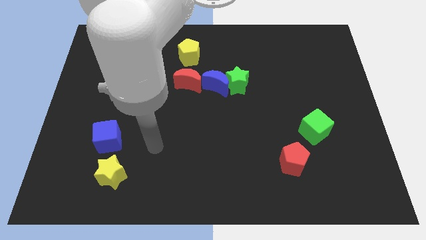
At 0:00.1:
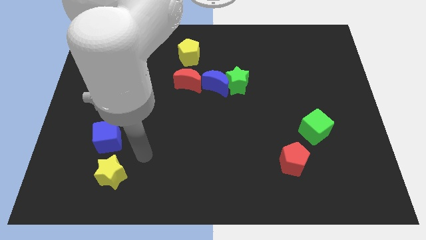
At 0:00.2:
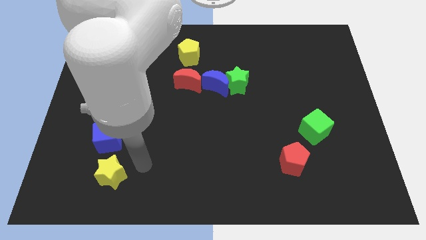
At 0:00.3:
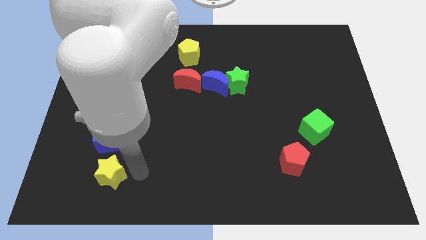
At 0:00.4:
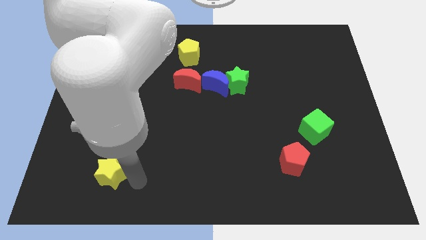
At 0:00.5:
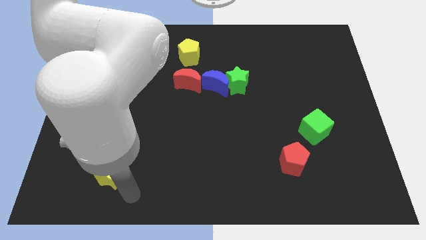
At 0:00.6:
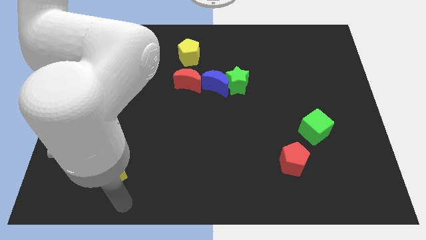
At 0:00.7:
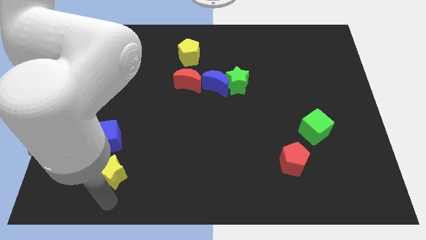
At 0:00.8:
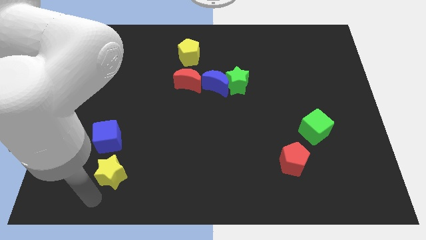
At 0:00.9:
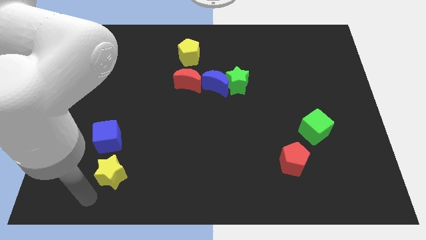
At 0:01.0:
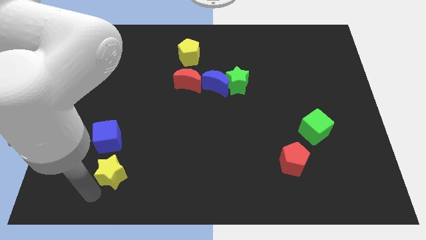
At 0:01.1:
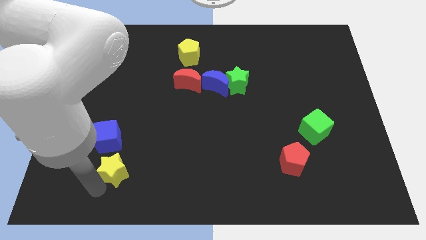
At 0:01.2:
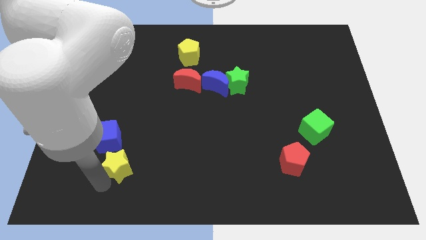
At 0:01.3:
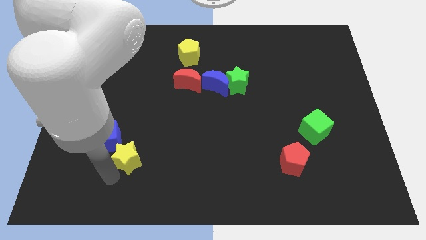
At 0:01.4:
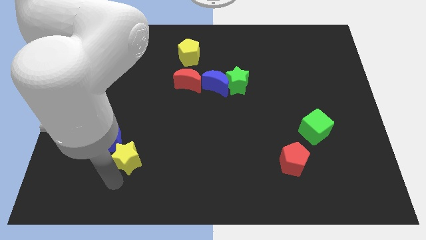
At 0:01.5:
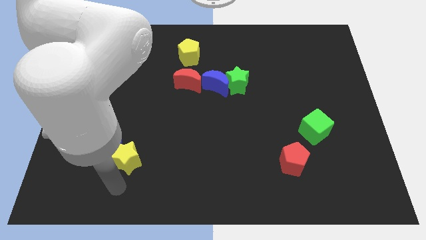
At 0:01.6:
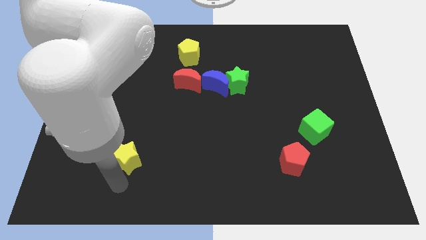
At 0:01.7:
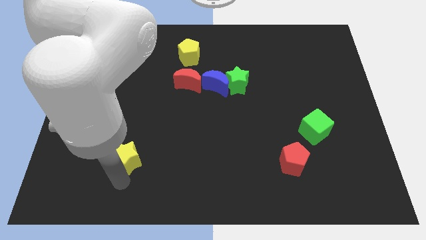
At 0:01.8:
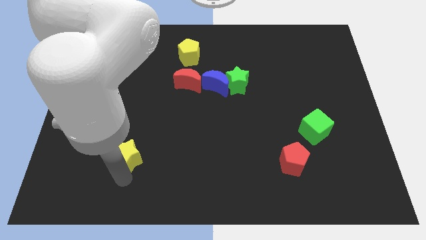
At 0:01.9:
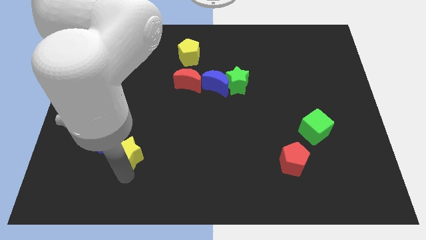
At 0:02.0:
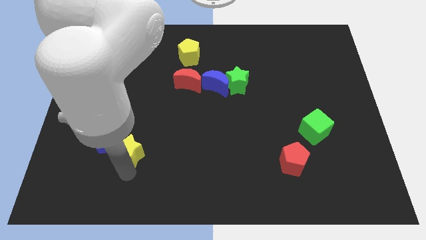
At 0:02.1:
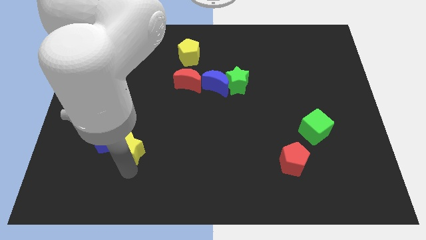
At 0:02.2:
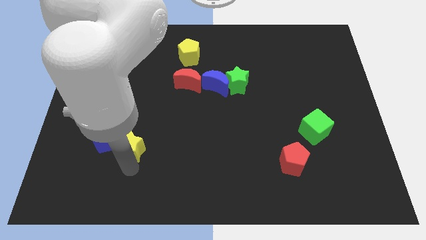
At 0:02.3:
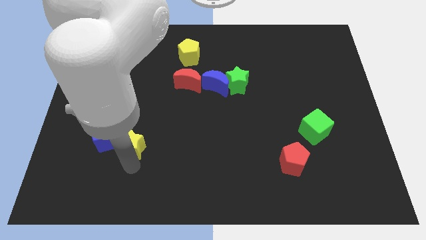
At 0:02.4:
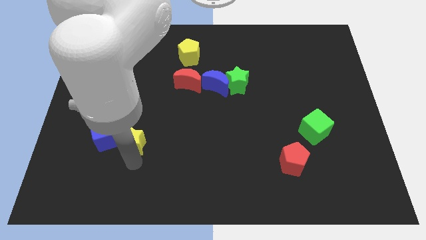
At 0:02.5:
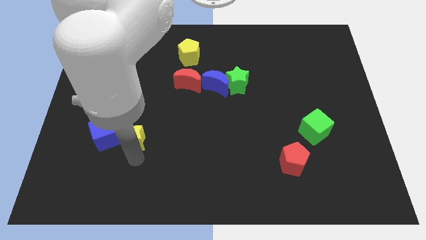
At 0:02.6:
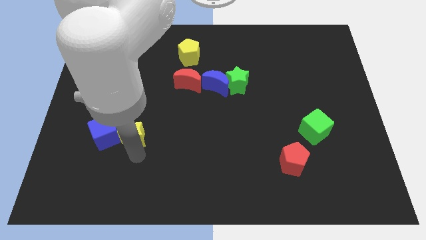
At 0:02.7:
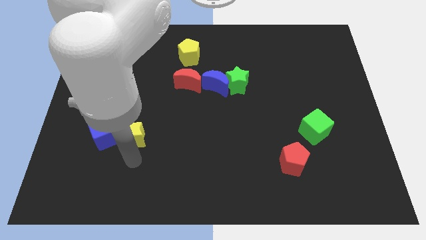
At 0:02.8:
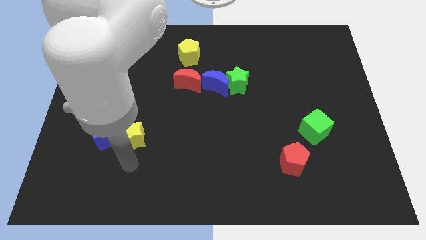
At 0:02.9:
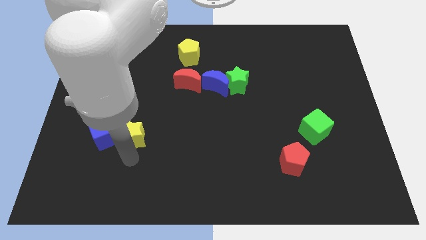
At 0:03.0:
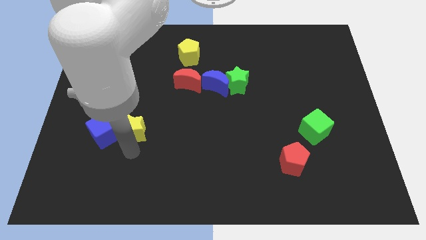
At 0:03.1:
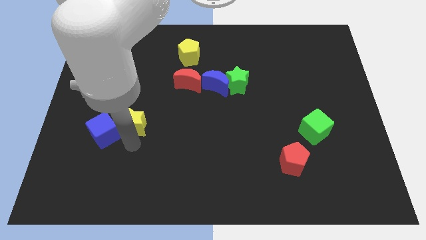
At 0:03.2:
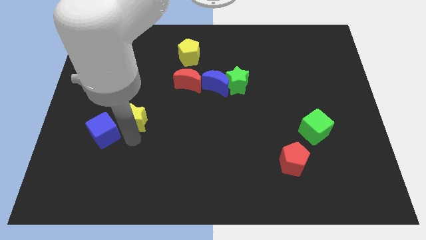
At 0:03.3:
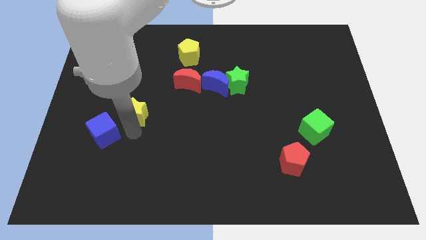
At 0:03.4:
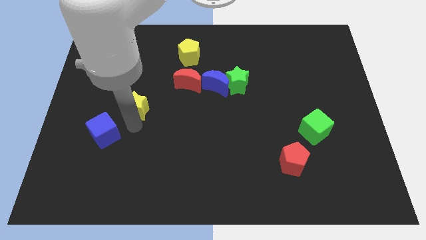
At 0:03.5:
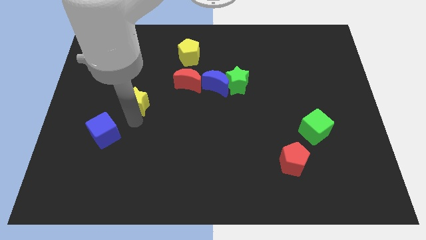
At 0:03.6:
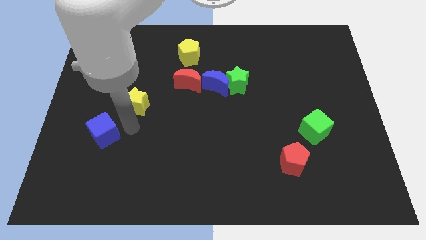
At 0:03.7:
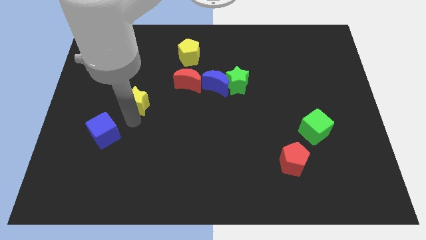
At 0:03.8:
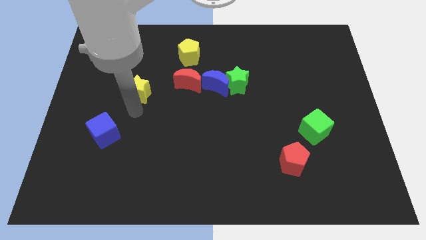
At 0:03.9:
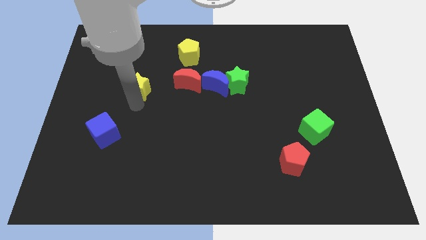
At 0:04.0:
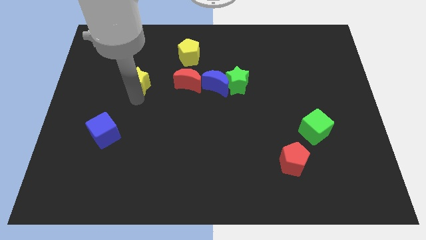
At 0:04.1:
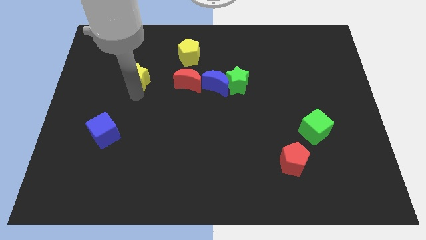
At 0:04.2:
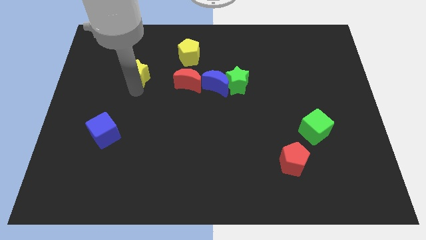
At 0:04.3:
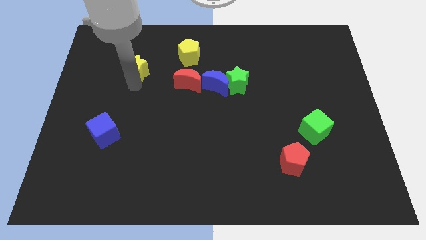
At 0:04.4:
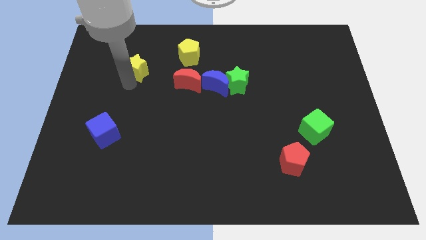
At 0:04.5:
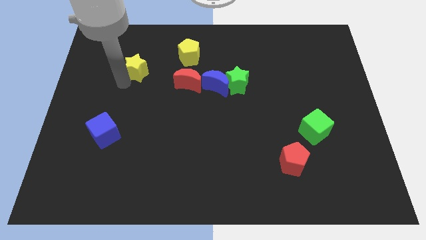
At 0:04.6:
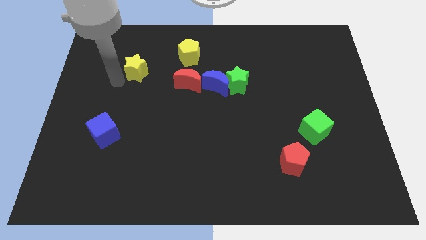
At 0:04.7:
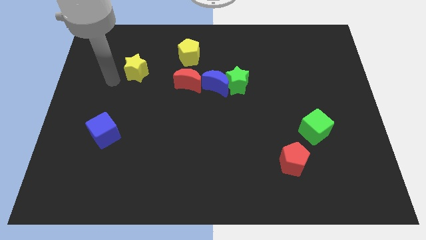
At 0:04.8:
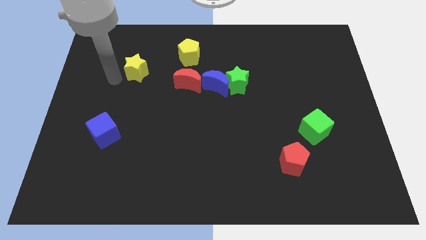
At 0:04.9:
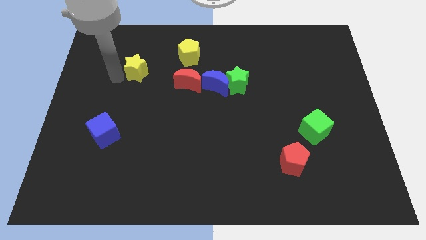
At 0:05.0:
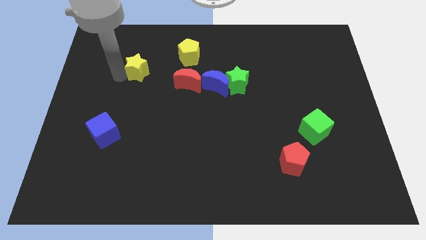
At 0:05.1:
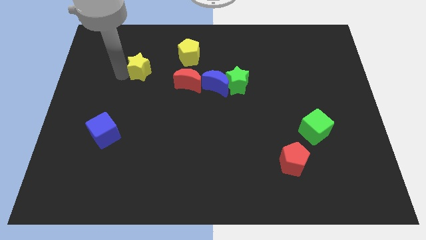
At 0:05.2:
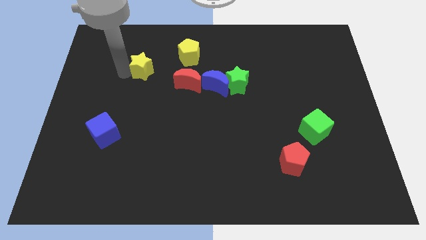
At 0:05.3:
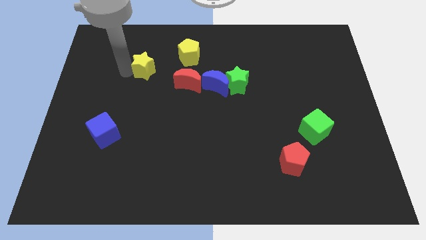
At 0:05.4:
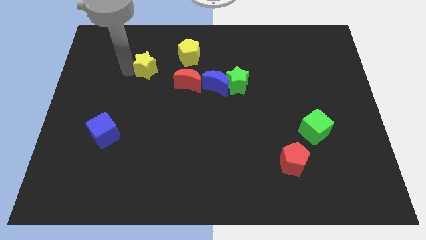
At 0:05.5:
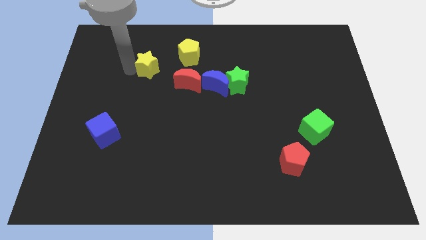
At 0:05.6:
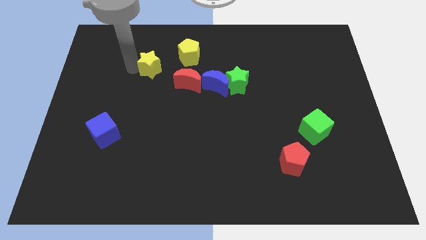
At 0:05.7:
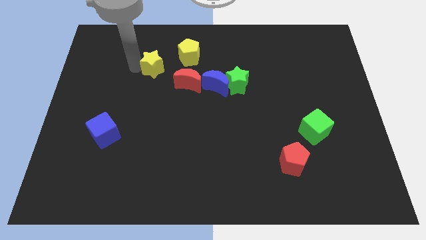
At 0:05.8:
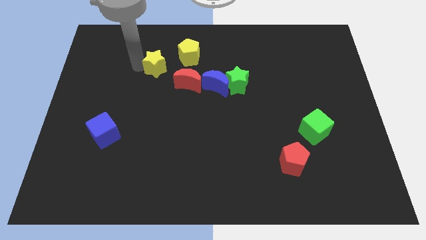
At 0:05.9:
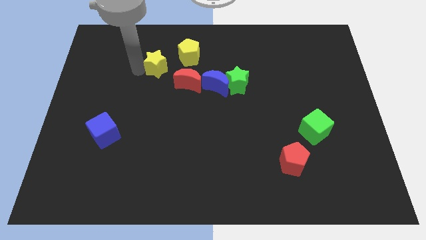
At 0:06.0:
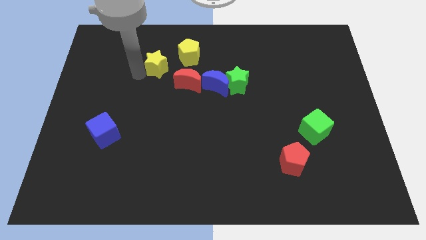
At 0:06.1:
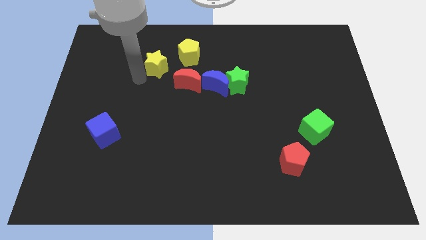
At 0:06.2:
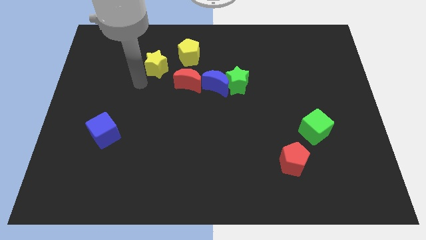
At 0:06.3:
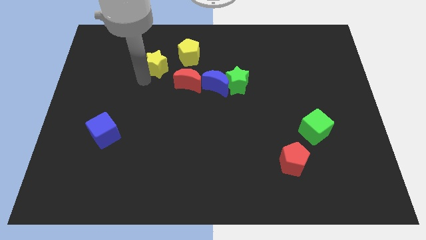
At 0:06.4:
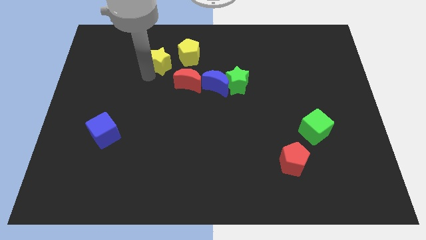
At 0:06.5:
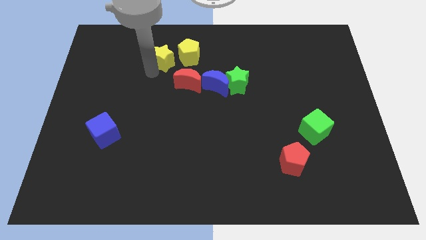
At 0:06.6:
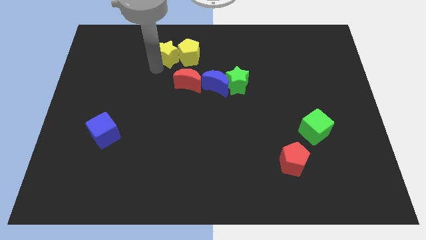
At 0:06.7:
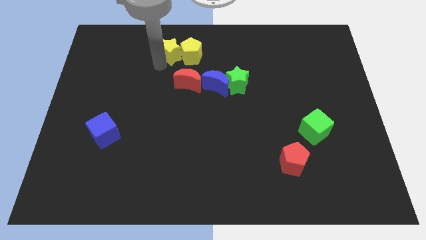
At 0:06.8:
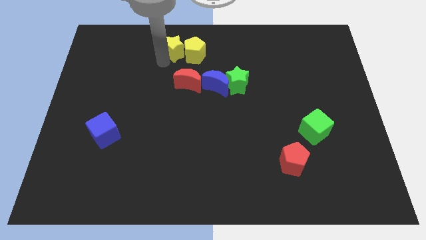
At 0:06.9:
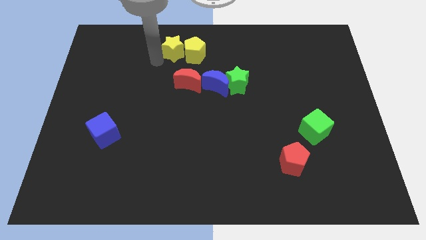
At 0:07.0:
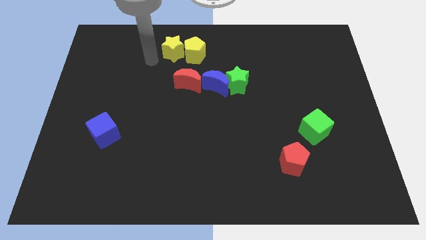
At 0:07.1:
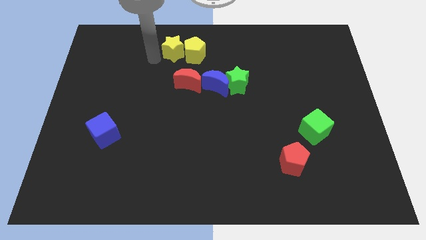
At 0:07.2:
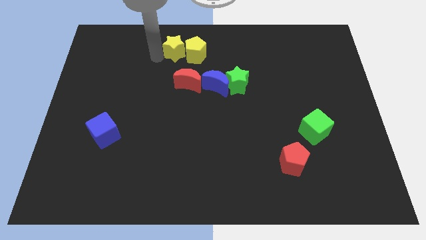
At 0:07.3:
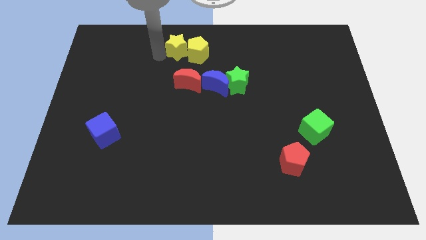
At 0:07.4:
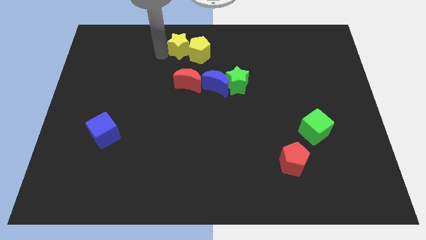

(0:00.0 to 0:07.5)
move the yellow star to the top
